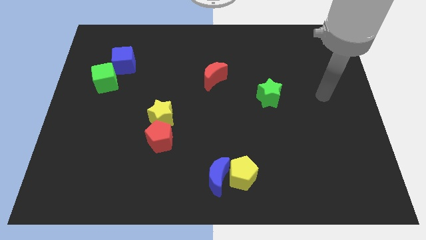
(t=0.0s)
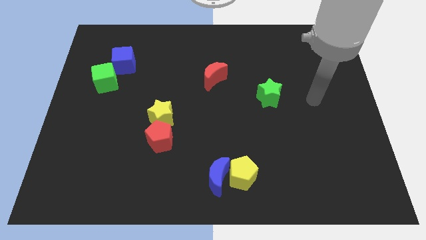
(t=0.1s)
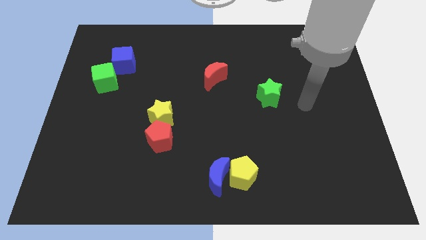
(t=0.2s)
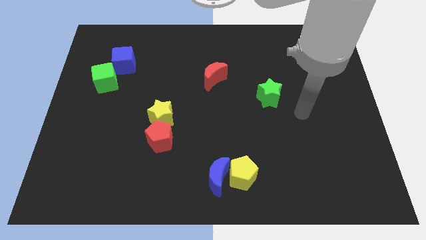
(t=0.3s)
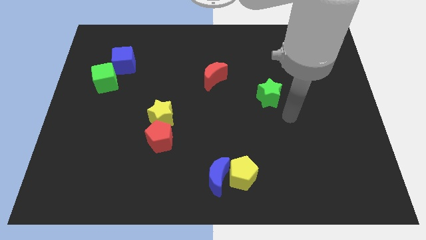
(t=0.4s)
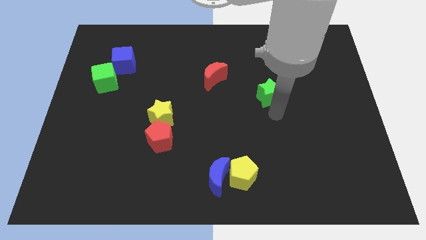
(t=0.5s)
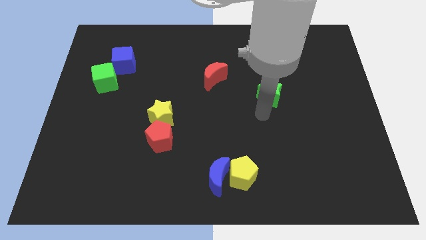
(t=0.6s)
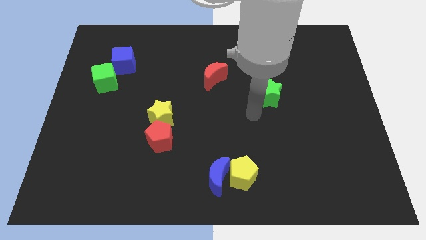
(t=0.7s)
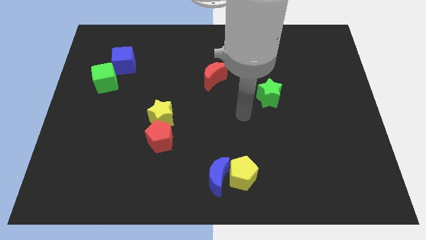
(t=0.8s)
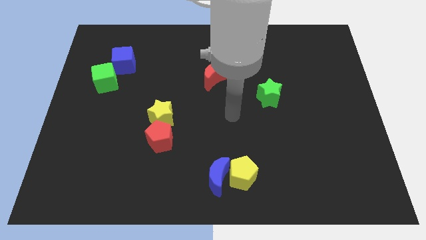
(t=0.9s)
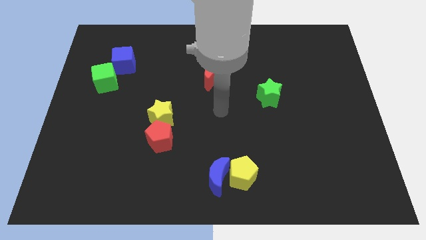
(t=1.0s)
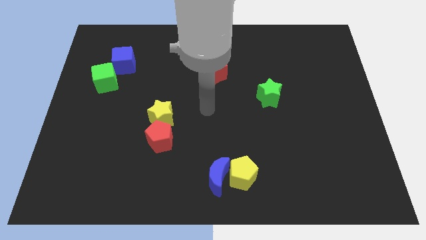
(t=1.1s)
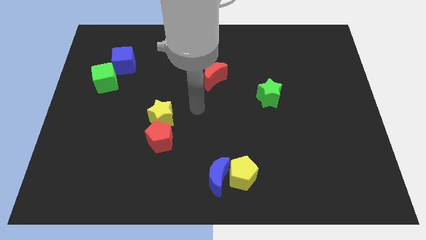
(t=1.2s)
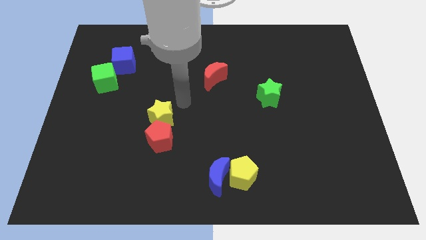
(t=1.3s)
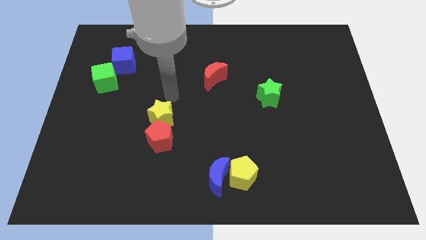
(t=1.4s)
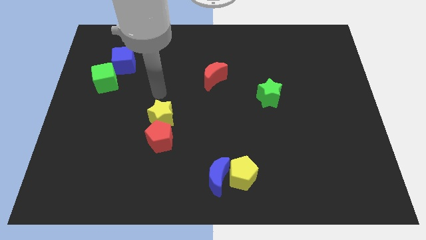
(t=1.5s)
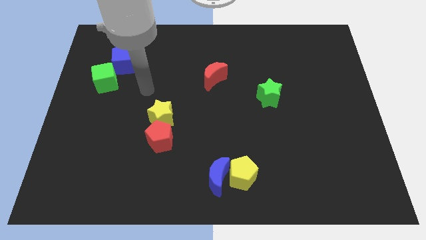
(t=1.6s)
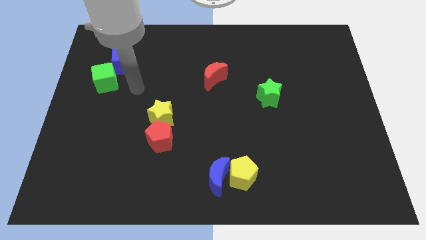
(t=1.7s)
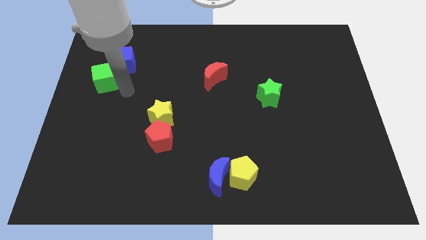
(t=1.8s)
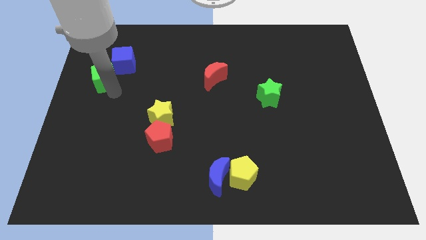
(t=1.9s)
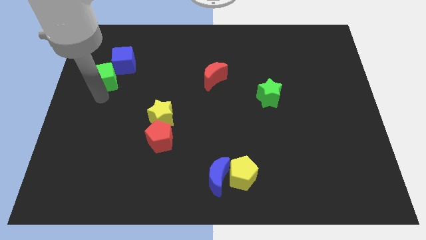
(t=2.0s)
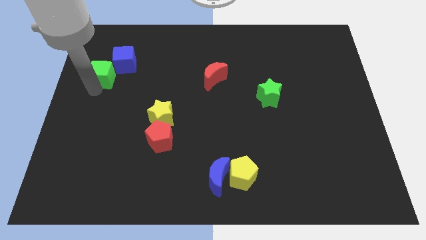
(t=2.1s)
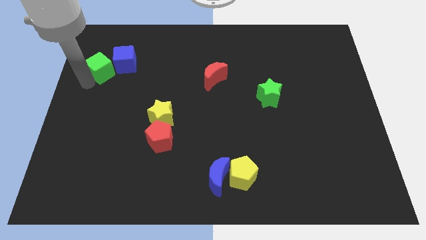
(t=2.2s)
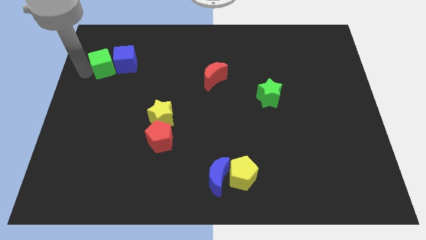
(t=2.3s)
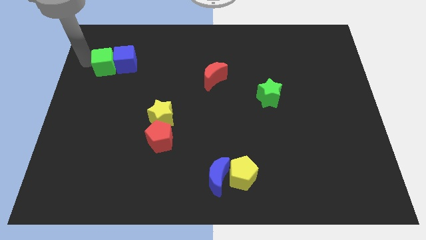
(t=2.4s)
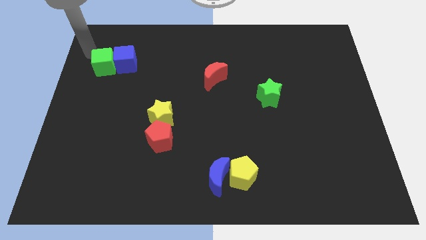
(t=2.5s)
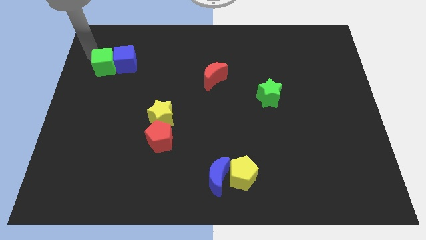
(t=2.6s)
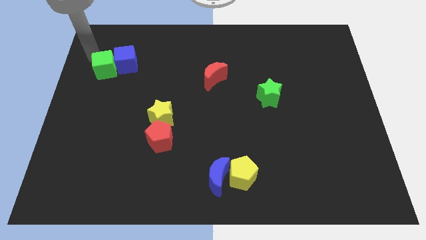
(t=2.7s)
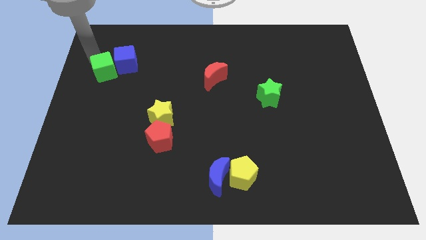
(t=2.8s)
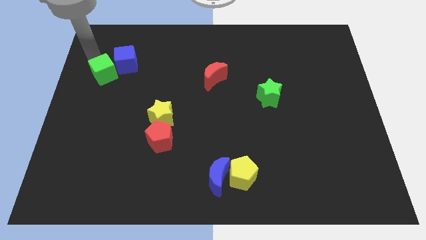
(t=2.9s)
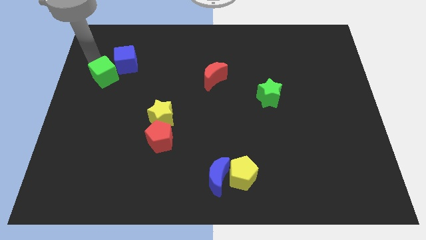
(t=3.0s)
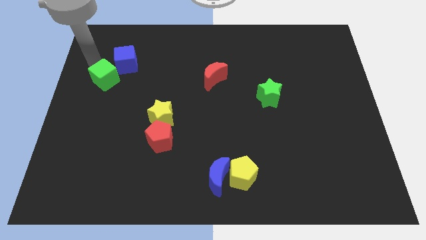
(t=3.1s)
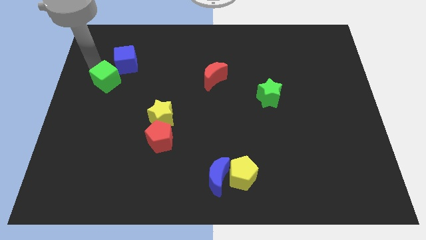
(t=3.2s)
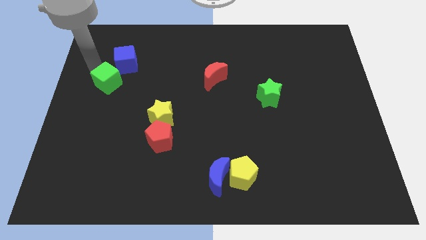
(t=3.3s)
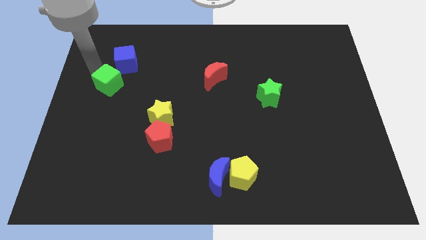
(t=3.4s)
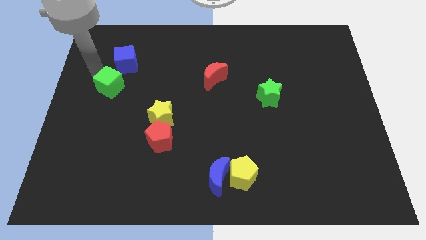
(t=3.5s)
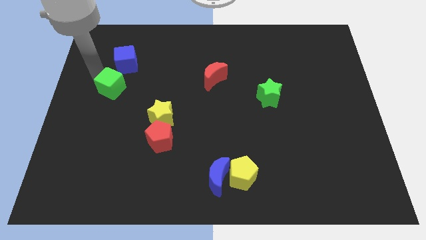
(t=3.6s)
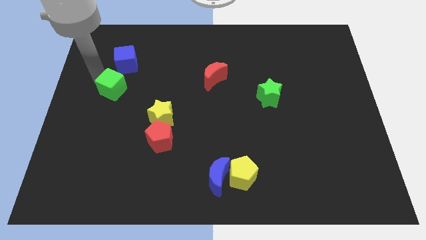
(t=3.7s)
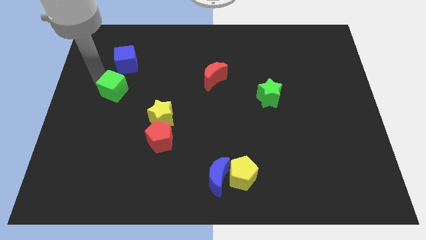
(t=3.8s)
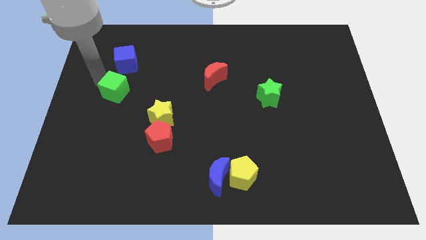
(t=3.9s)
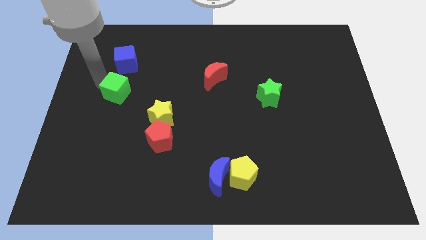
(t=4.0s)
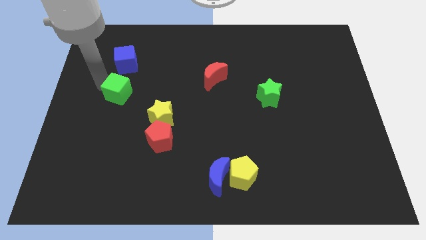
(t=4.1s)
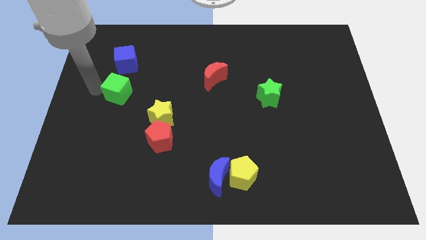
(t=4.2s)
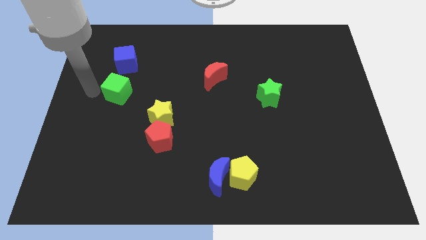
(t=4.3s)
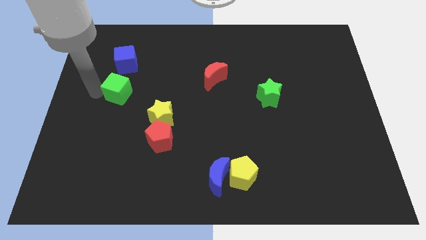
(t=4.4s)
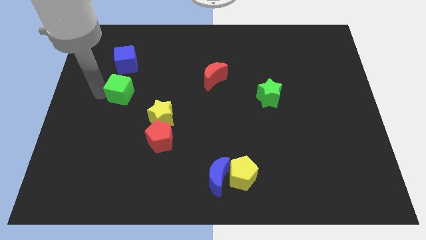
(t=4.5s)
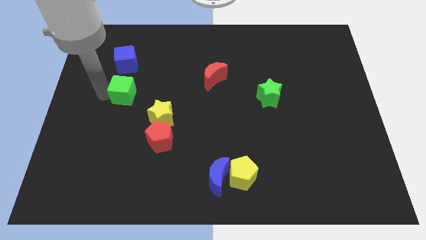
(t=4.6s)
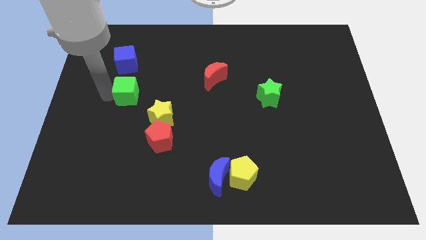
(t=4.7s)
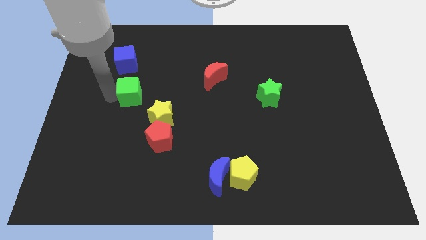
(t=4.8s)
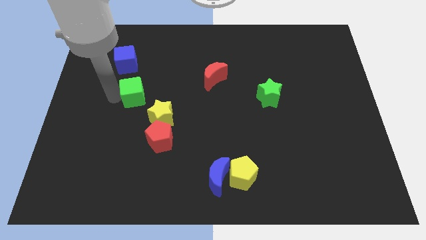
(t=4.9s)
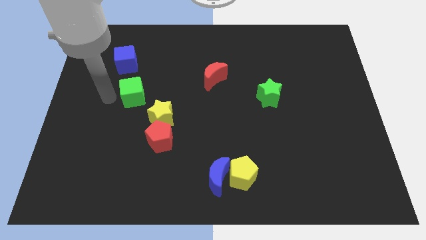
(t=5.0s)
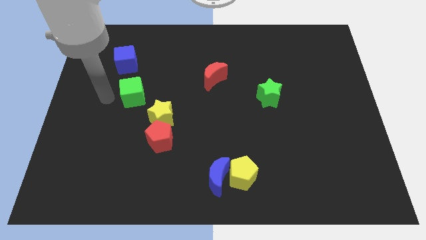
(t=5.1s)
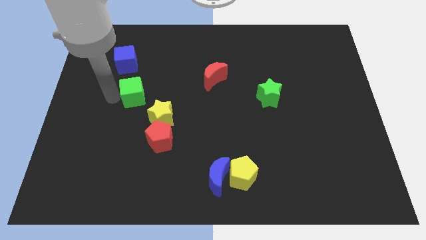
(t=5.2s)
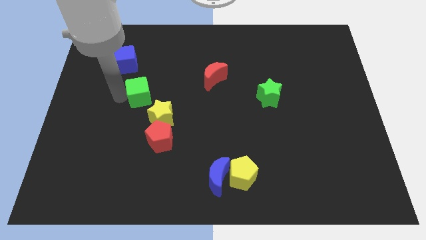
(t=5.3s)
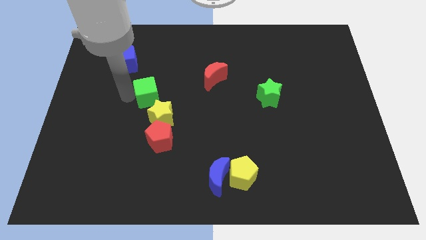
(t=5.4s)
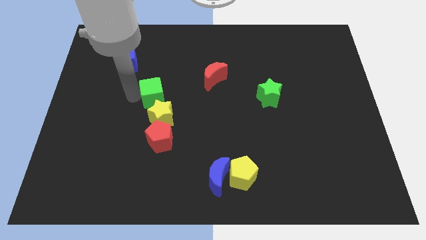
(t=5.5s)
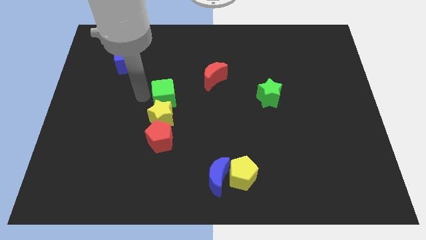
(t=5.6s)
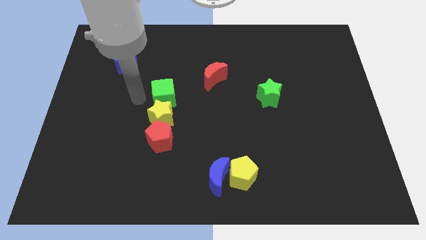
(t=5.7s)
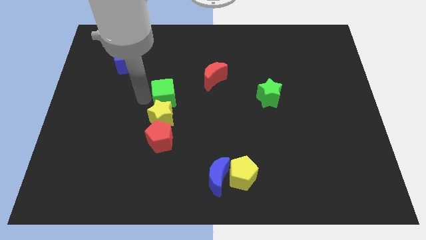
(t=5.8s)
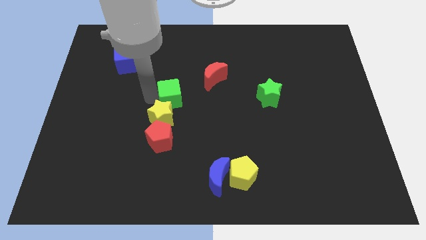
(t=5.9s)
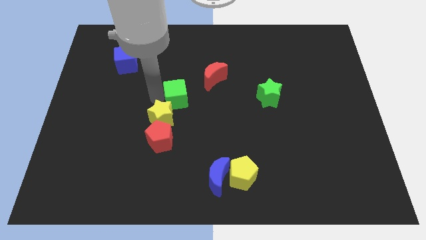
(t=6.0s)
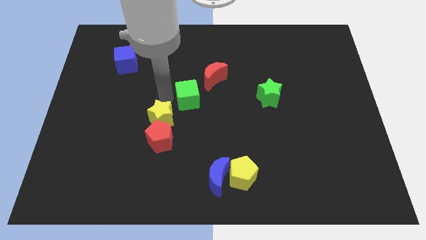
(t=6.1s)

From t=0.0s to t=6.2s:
push the green cube right

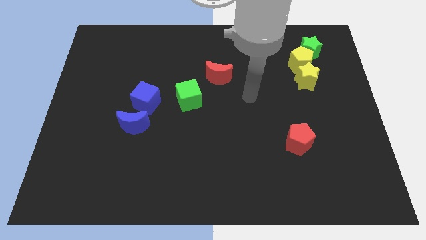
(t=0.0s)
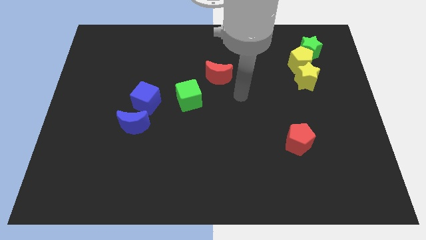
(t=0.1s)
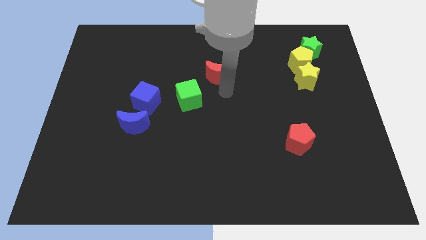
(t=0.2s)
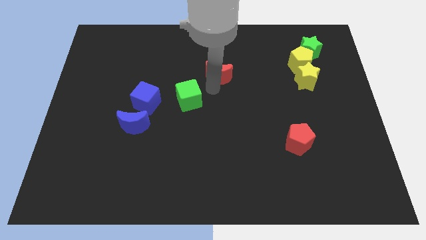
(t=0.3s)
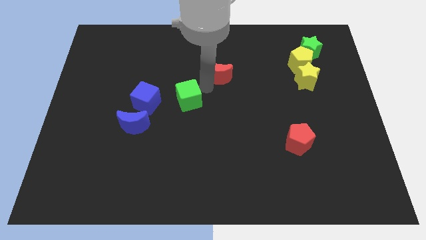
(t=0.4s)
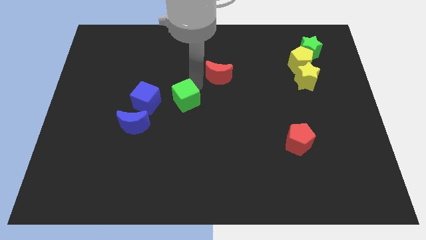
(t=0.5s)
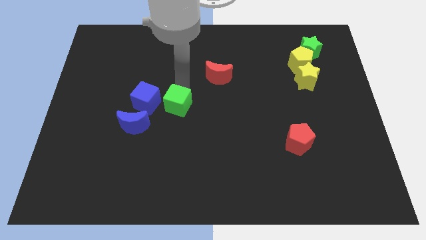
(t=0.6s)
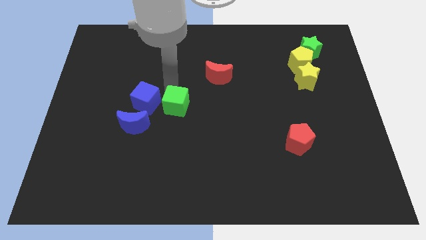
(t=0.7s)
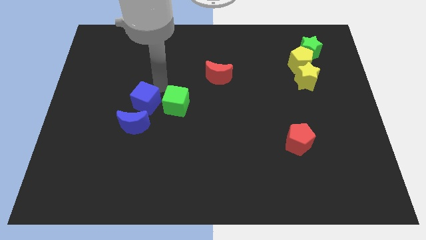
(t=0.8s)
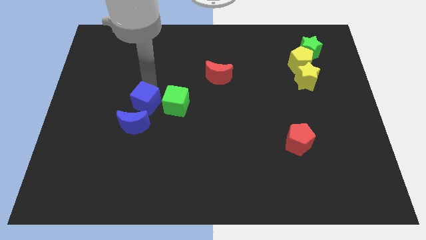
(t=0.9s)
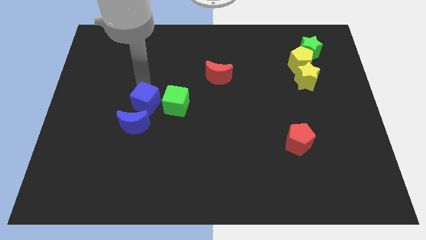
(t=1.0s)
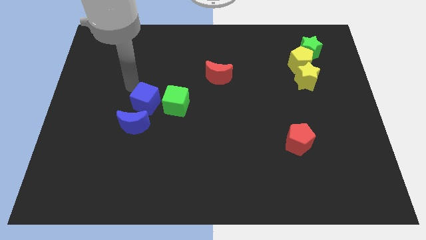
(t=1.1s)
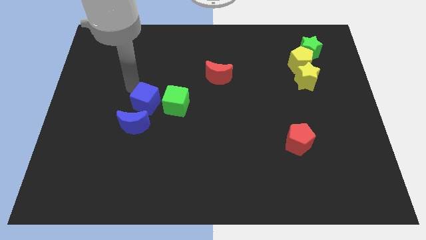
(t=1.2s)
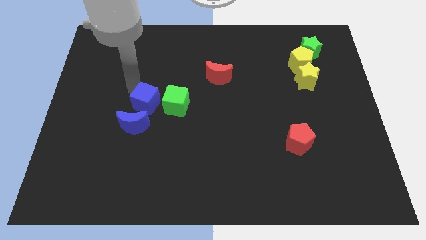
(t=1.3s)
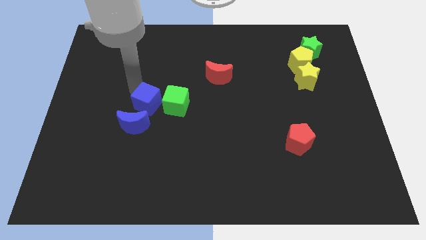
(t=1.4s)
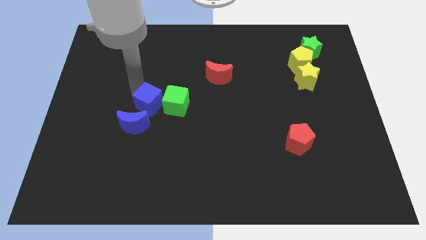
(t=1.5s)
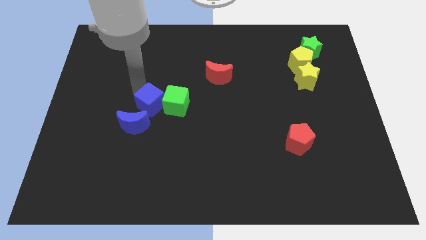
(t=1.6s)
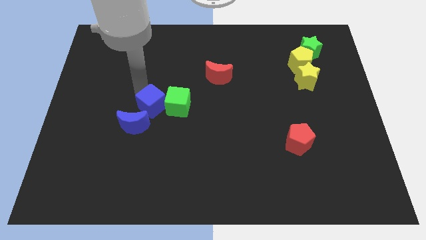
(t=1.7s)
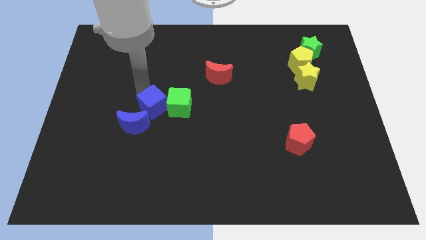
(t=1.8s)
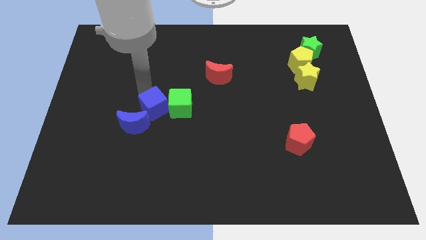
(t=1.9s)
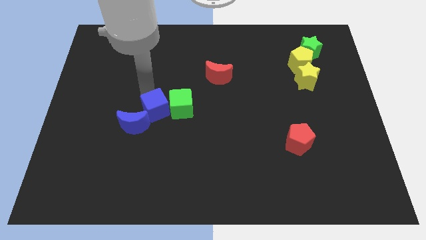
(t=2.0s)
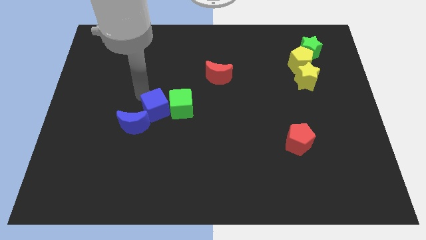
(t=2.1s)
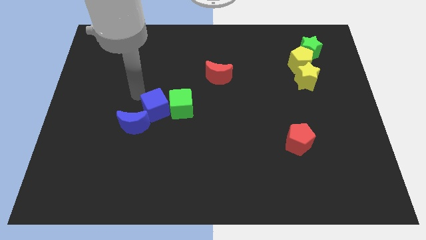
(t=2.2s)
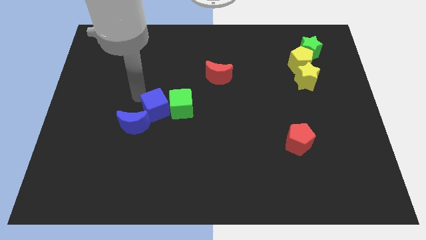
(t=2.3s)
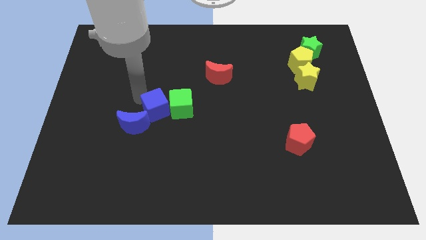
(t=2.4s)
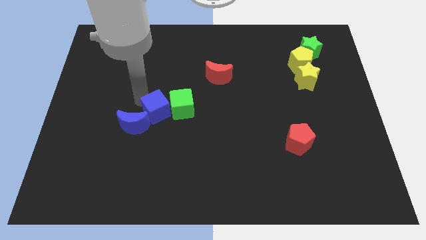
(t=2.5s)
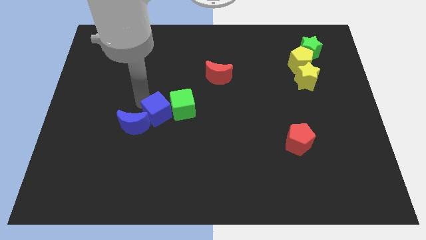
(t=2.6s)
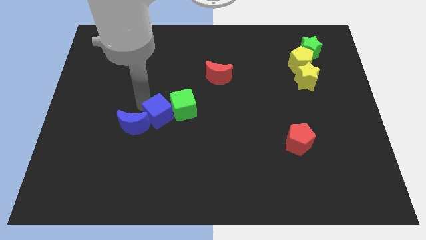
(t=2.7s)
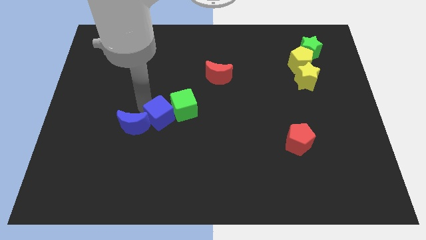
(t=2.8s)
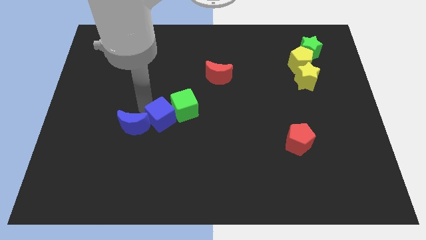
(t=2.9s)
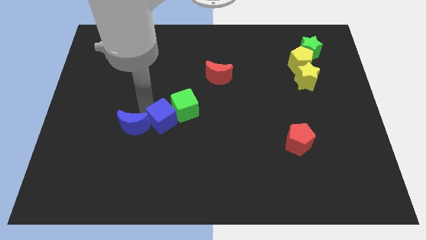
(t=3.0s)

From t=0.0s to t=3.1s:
move the blue cube a bit downwards and to the right diagonally
